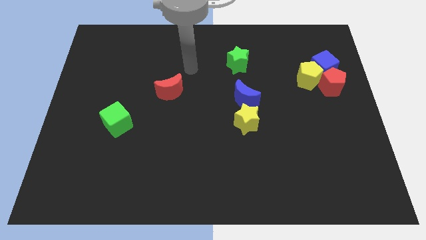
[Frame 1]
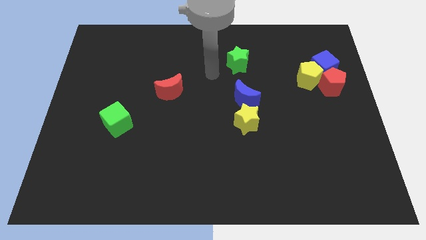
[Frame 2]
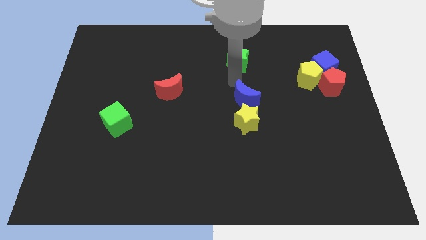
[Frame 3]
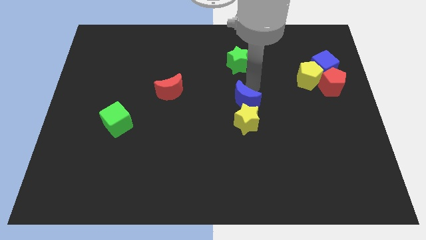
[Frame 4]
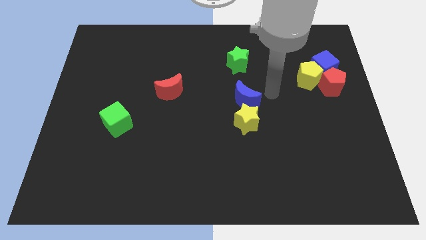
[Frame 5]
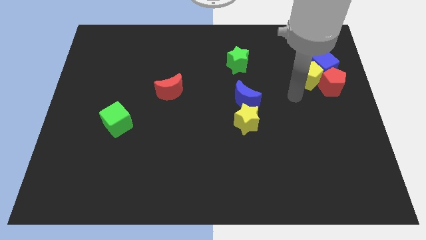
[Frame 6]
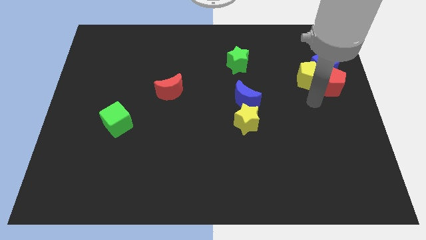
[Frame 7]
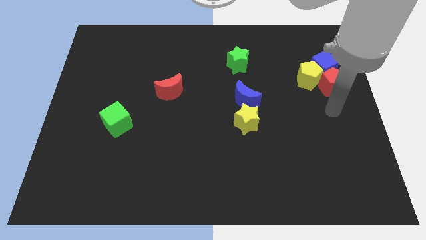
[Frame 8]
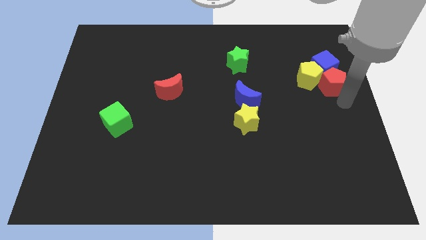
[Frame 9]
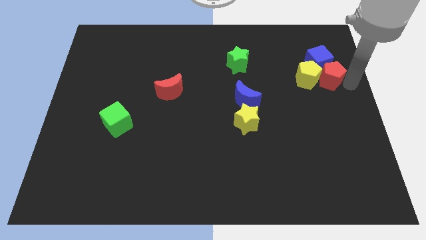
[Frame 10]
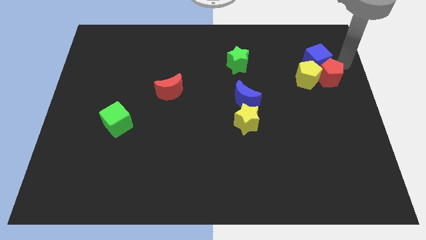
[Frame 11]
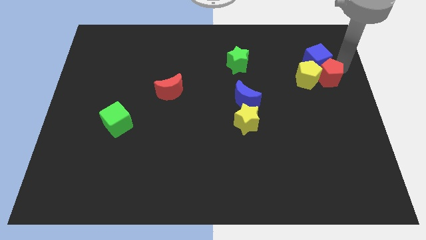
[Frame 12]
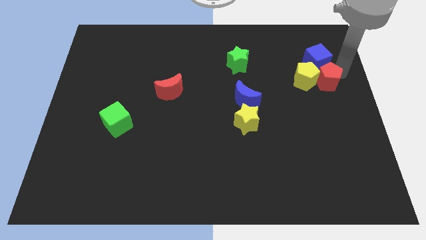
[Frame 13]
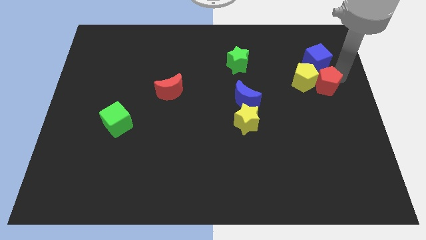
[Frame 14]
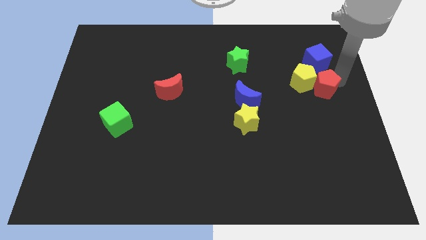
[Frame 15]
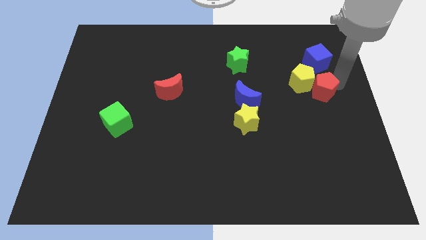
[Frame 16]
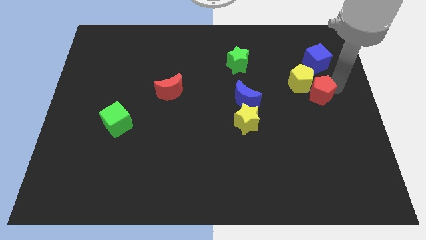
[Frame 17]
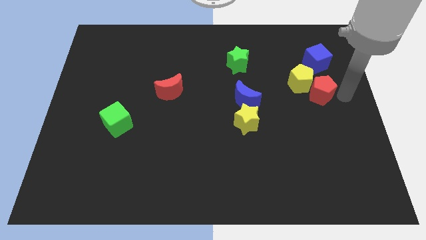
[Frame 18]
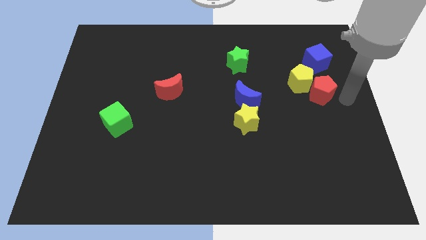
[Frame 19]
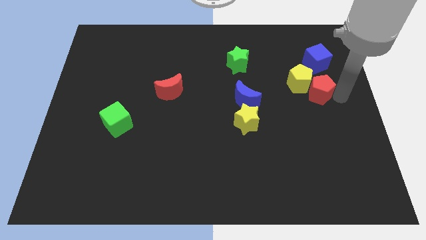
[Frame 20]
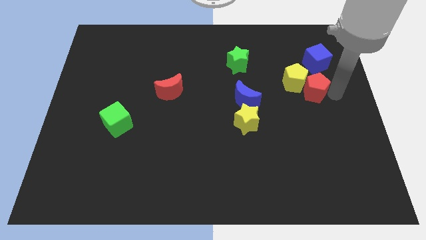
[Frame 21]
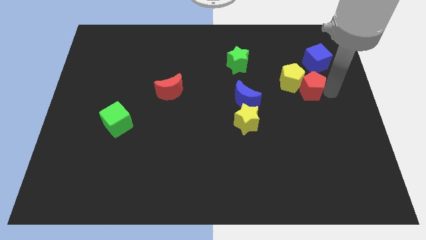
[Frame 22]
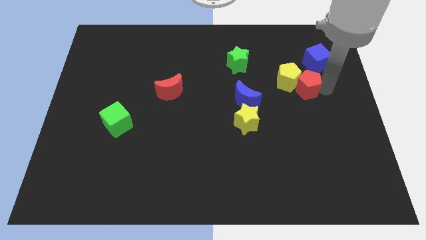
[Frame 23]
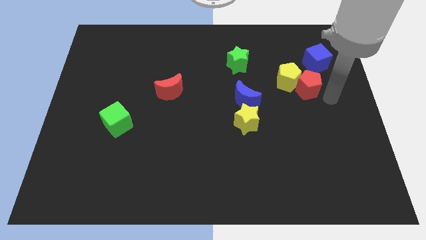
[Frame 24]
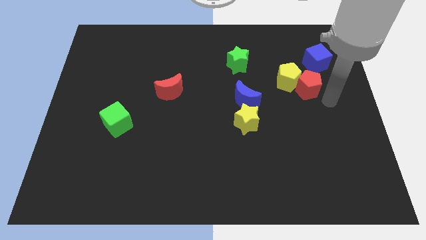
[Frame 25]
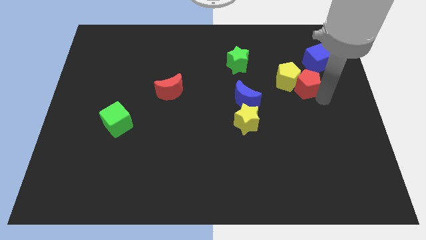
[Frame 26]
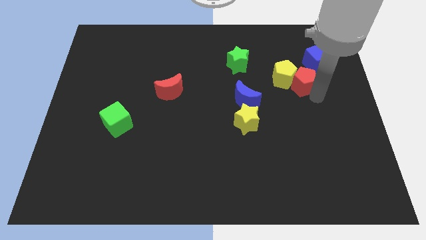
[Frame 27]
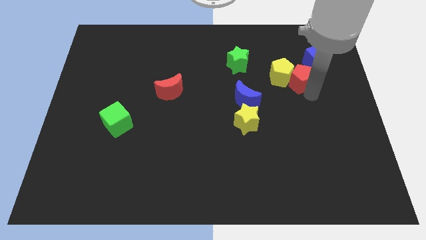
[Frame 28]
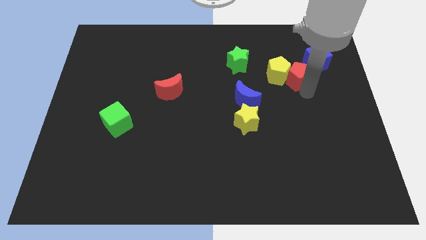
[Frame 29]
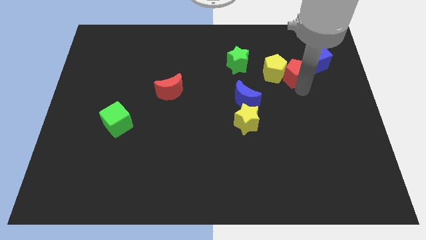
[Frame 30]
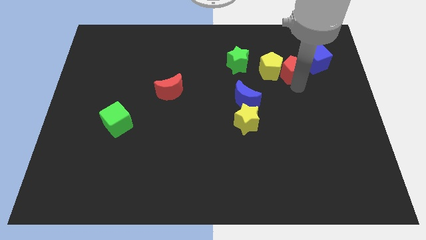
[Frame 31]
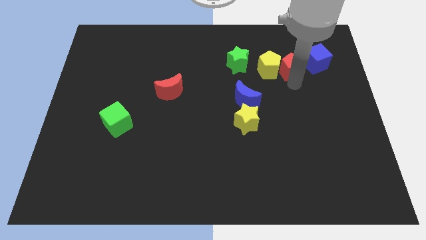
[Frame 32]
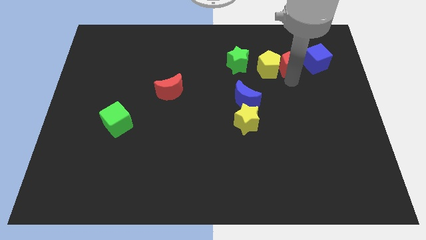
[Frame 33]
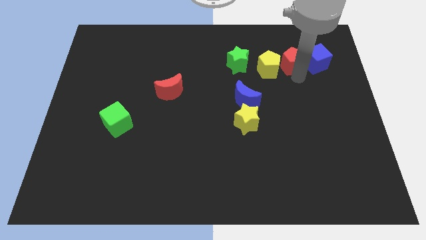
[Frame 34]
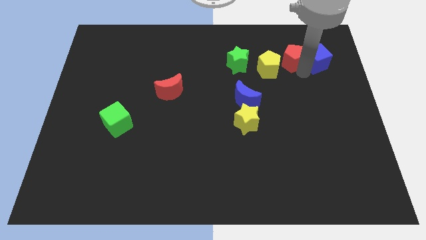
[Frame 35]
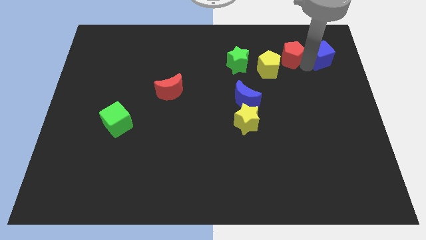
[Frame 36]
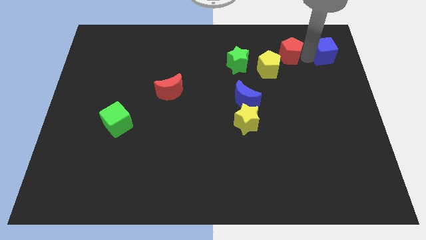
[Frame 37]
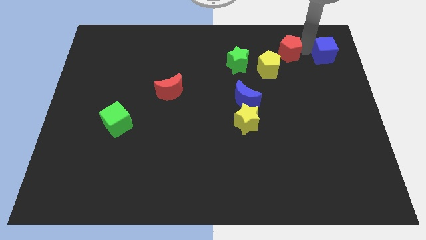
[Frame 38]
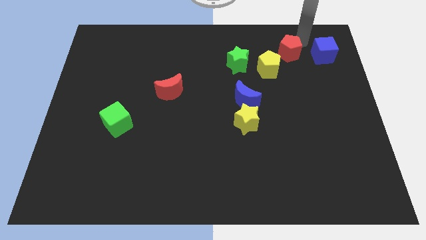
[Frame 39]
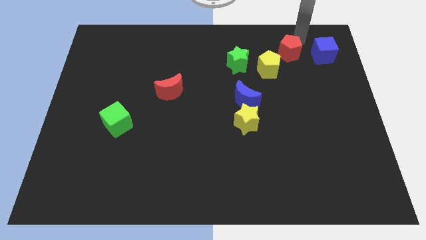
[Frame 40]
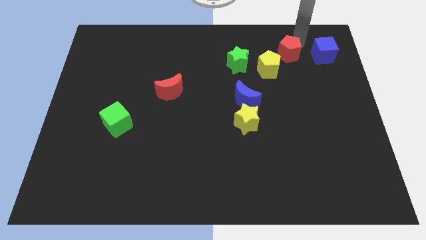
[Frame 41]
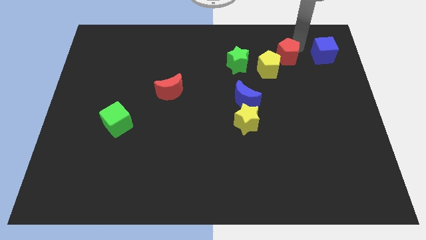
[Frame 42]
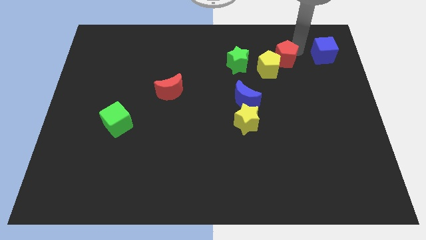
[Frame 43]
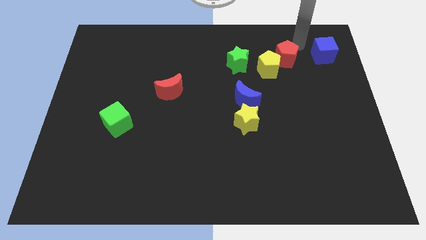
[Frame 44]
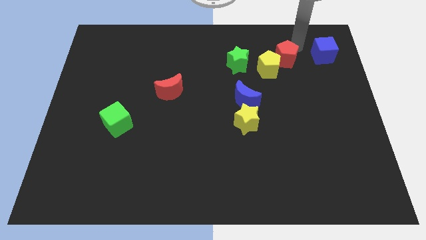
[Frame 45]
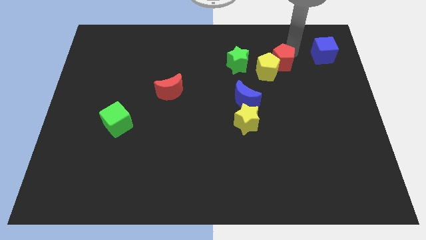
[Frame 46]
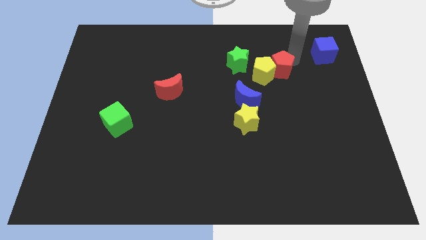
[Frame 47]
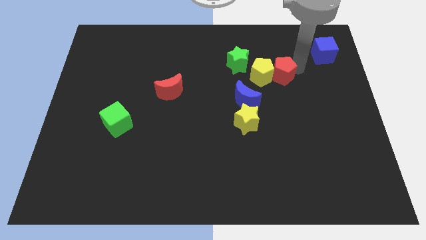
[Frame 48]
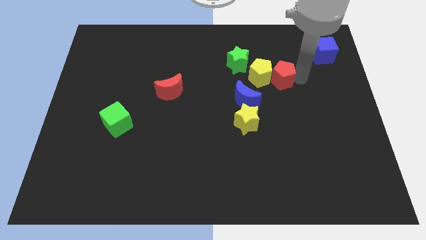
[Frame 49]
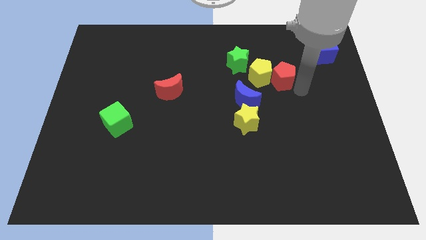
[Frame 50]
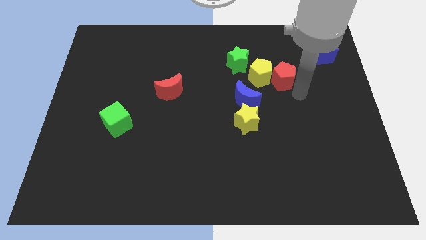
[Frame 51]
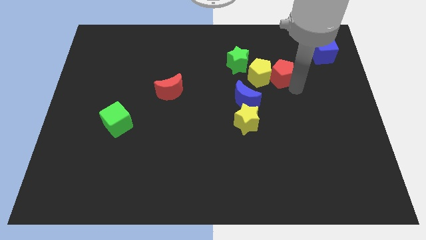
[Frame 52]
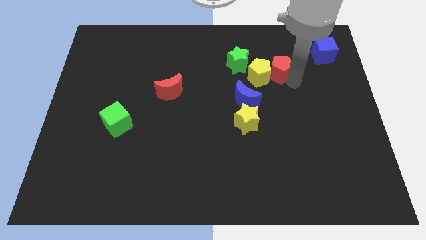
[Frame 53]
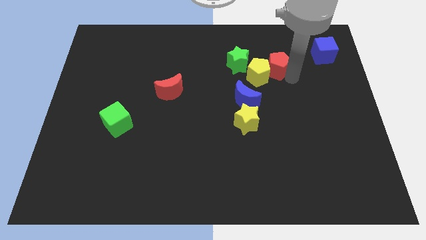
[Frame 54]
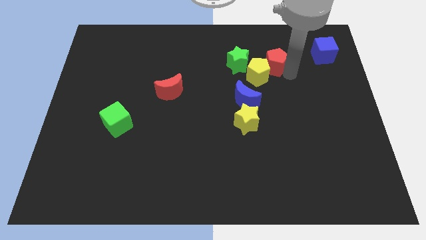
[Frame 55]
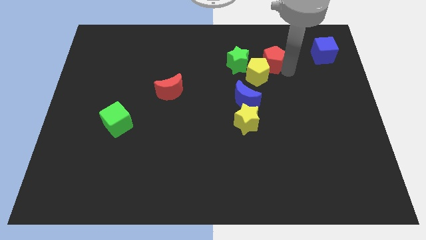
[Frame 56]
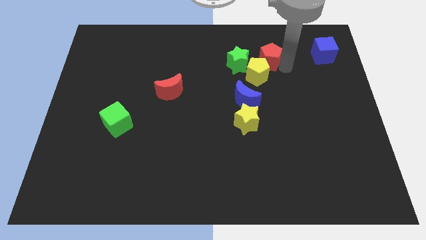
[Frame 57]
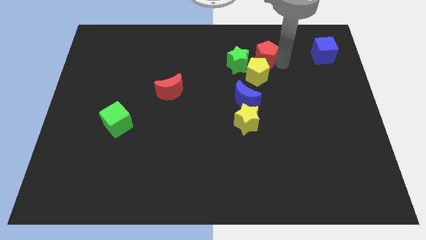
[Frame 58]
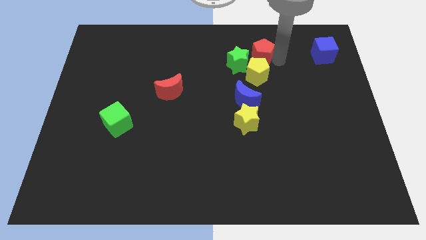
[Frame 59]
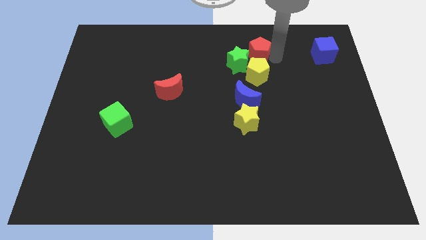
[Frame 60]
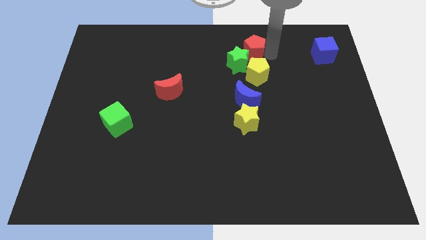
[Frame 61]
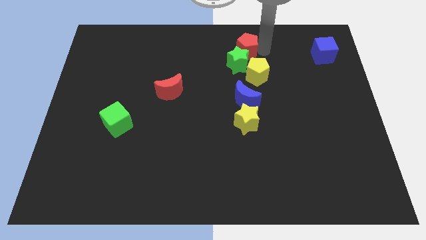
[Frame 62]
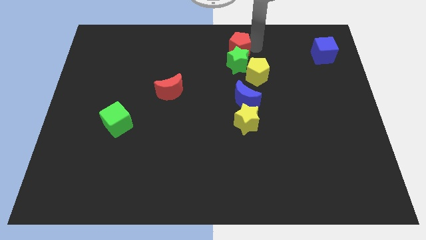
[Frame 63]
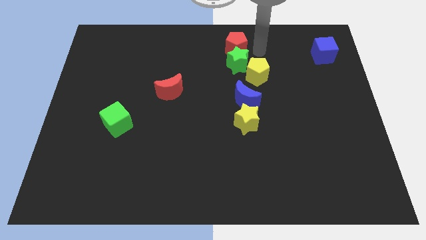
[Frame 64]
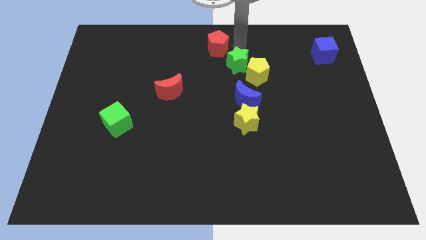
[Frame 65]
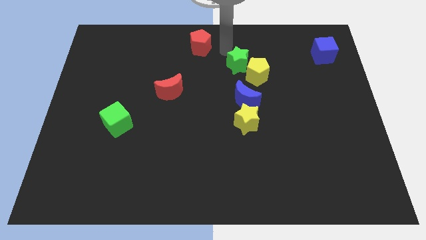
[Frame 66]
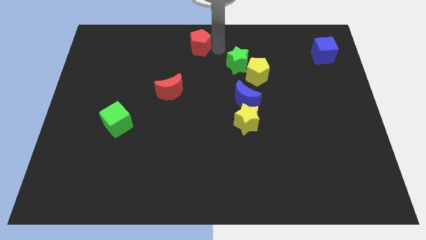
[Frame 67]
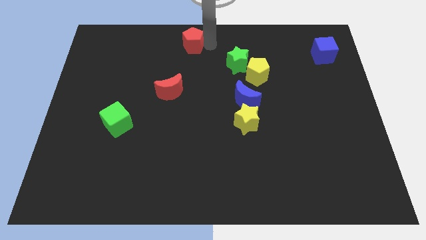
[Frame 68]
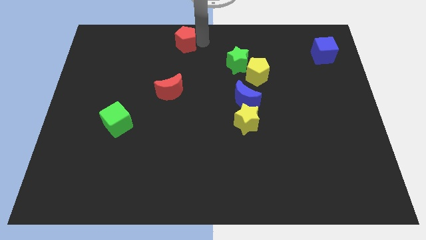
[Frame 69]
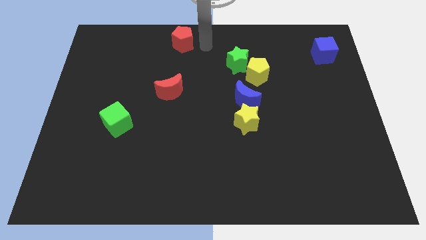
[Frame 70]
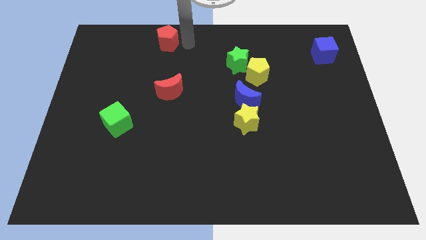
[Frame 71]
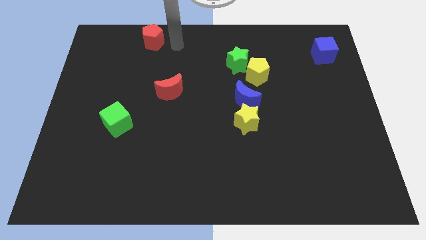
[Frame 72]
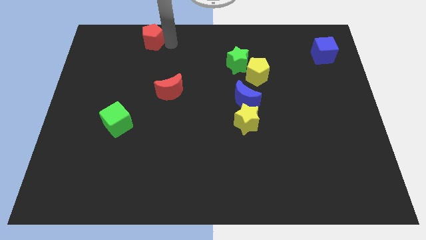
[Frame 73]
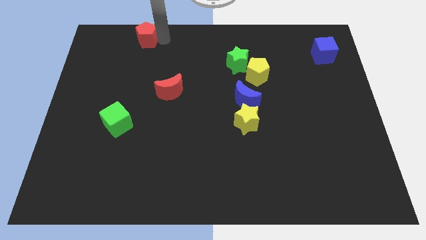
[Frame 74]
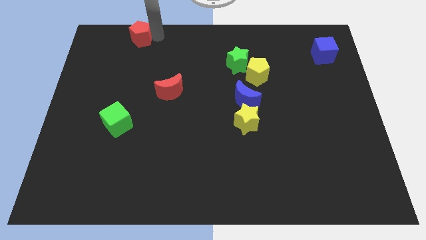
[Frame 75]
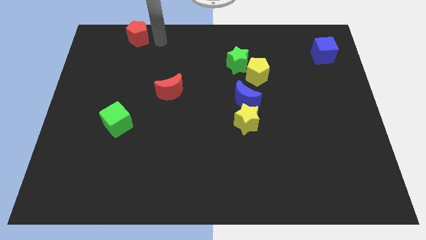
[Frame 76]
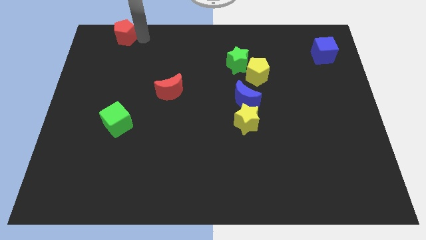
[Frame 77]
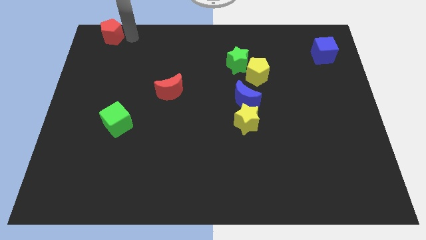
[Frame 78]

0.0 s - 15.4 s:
slide the red pentagon to the top left of the board
